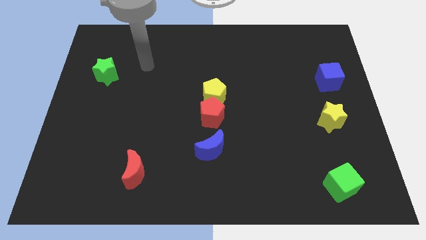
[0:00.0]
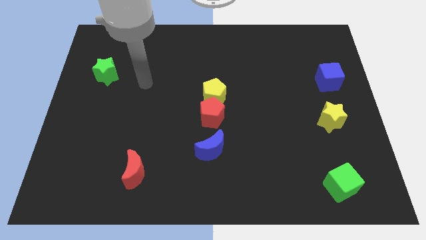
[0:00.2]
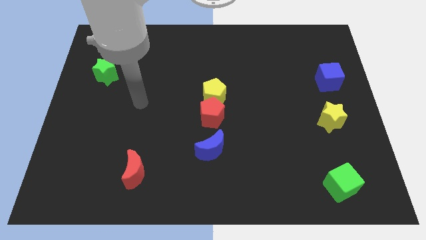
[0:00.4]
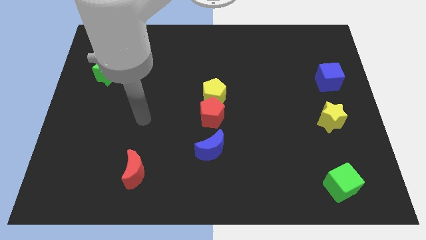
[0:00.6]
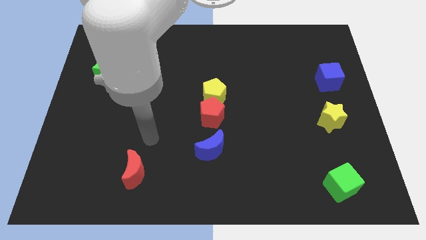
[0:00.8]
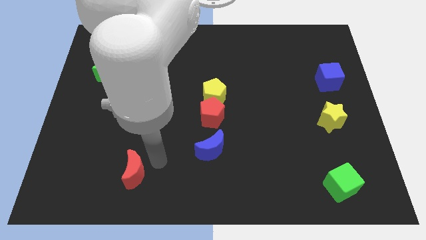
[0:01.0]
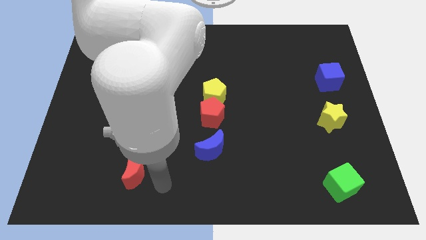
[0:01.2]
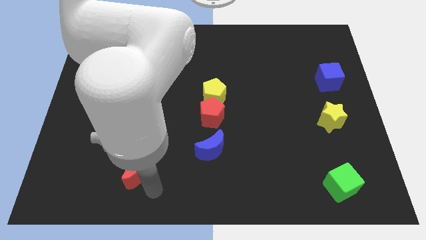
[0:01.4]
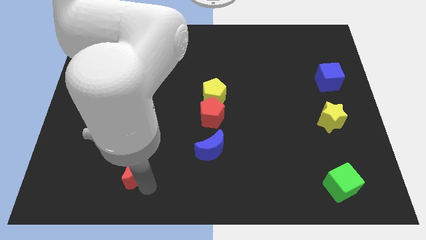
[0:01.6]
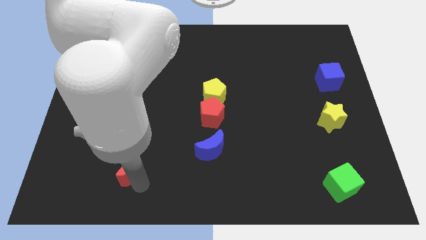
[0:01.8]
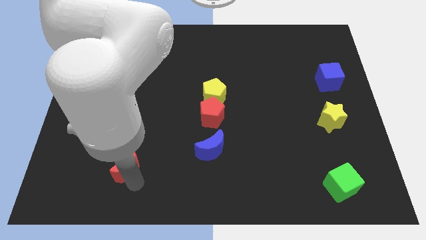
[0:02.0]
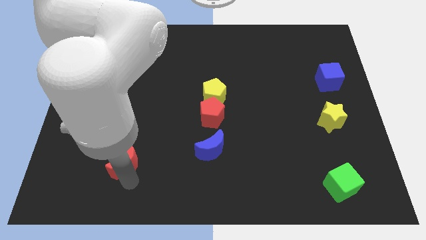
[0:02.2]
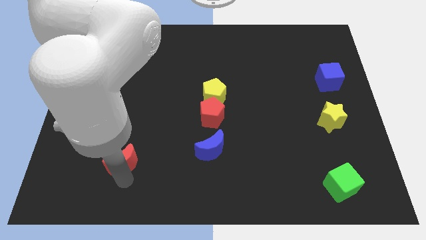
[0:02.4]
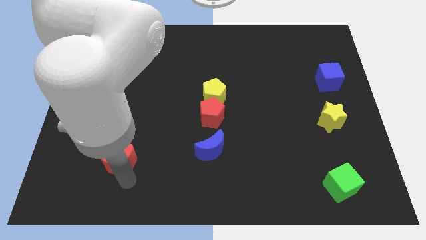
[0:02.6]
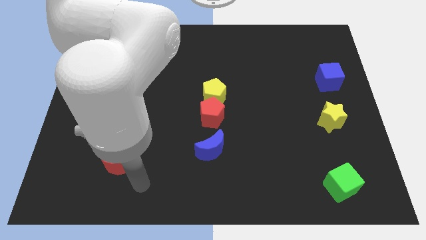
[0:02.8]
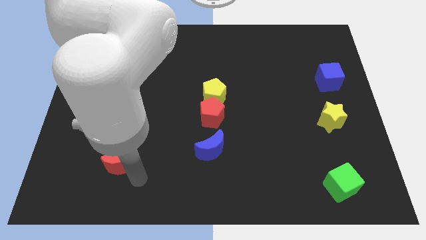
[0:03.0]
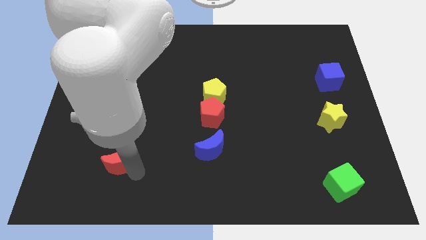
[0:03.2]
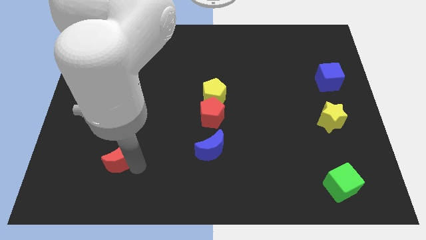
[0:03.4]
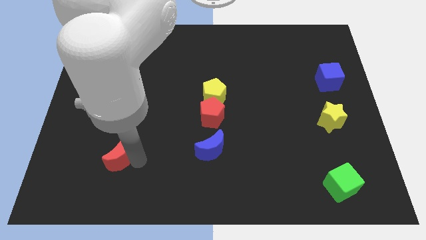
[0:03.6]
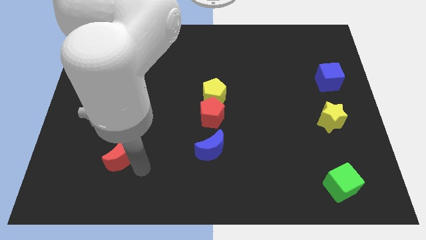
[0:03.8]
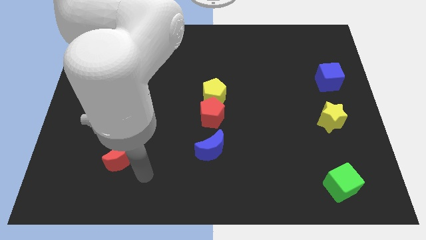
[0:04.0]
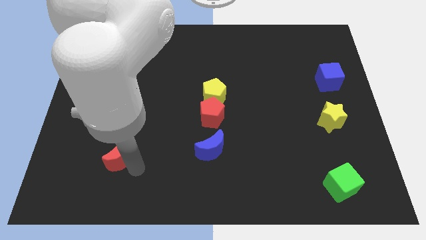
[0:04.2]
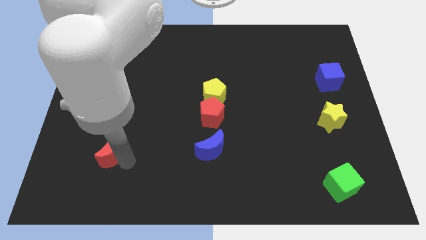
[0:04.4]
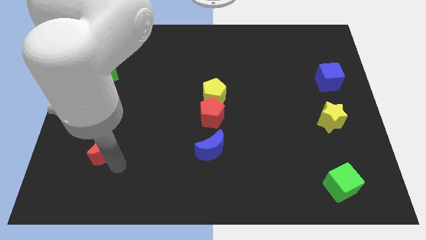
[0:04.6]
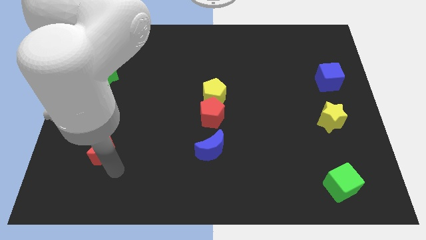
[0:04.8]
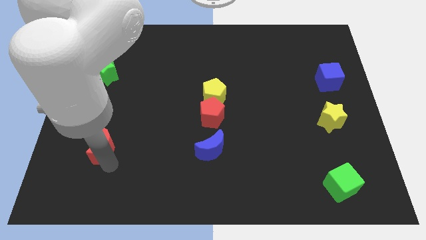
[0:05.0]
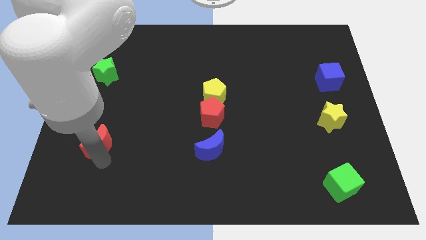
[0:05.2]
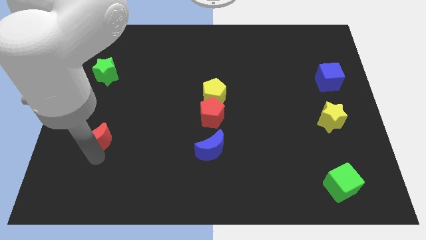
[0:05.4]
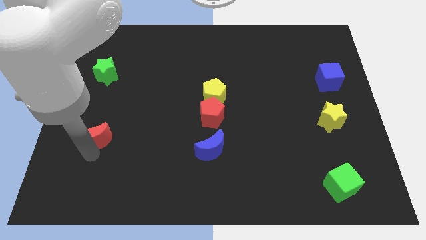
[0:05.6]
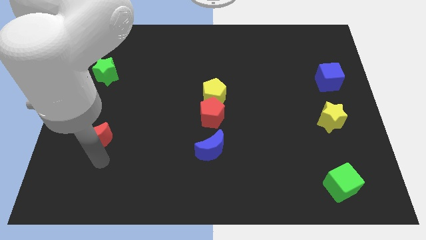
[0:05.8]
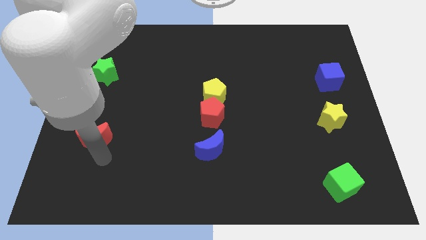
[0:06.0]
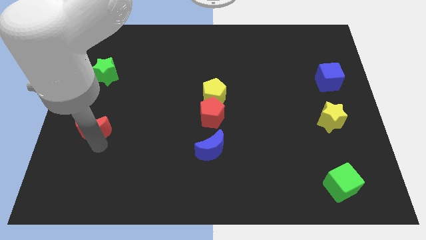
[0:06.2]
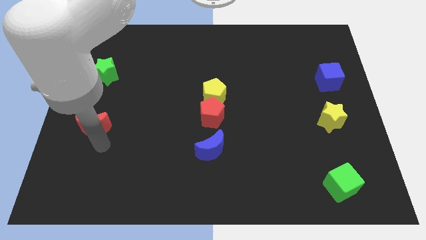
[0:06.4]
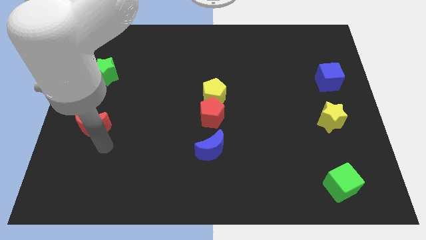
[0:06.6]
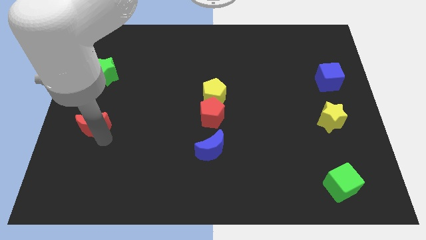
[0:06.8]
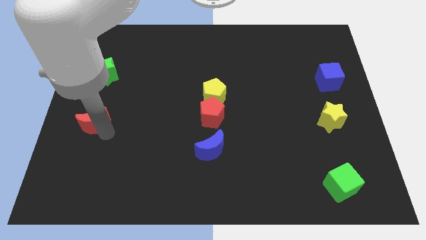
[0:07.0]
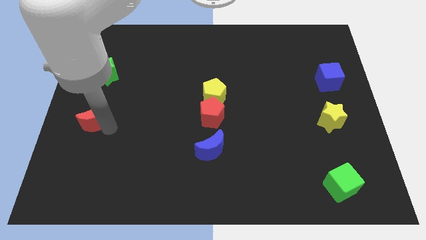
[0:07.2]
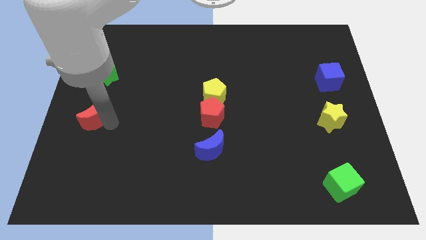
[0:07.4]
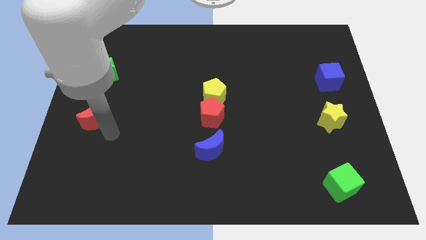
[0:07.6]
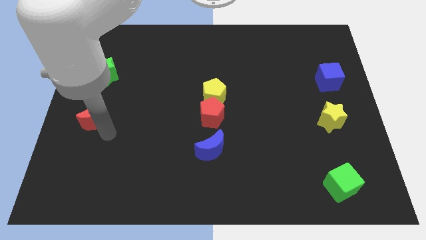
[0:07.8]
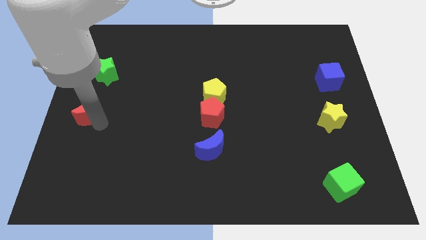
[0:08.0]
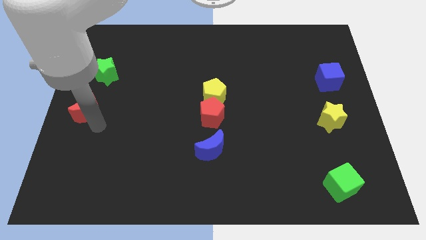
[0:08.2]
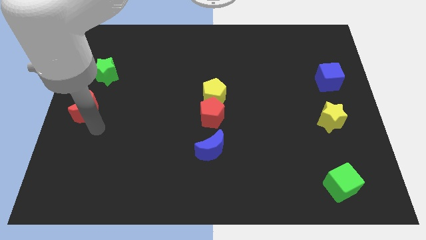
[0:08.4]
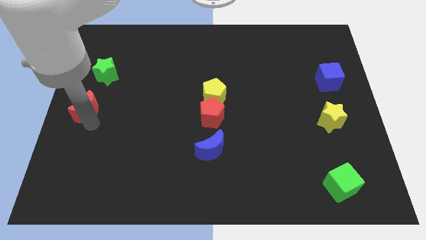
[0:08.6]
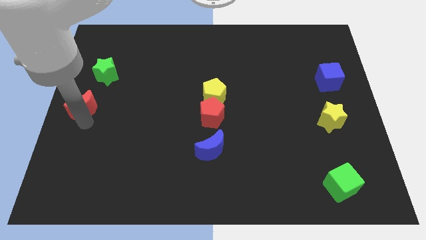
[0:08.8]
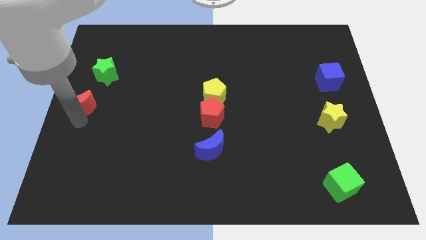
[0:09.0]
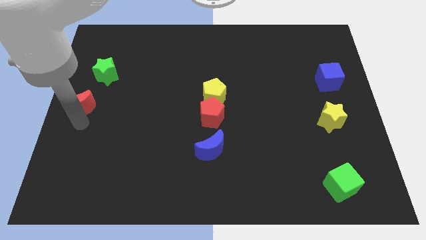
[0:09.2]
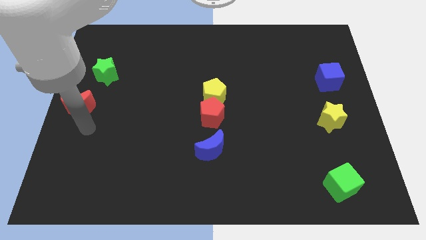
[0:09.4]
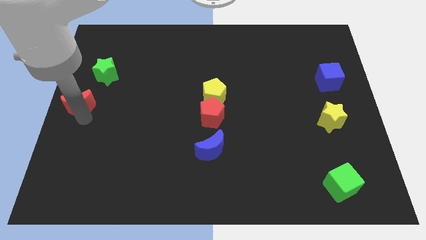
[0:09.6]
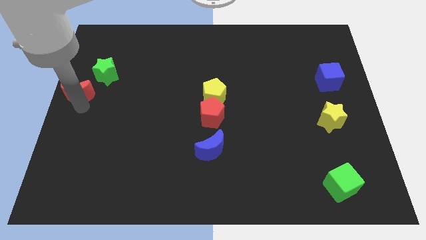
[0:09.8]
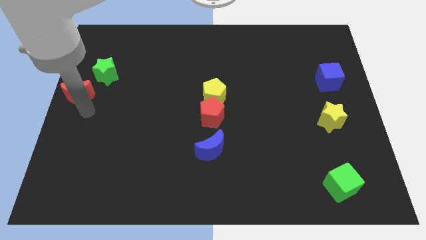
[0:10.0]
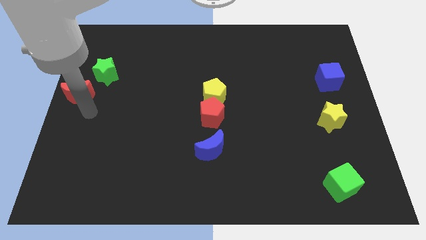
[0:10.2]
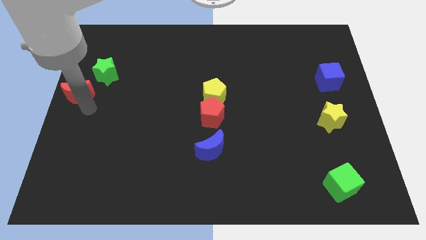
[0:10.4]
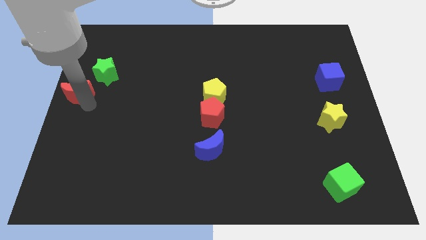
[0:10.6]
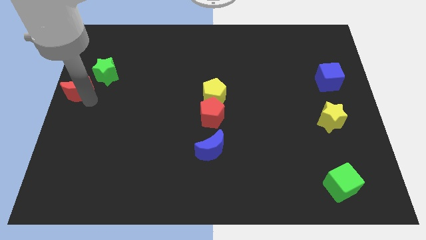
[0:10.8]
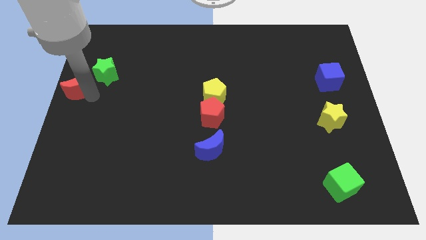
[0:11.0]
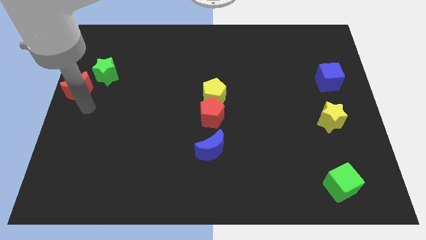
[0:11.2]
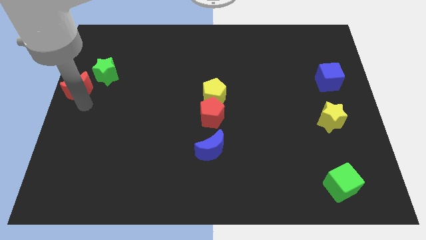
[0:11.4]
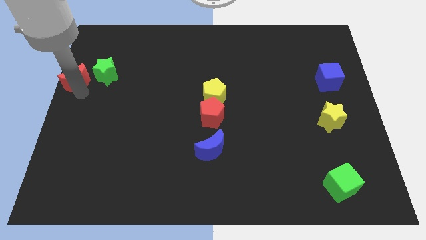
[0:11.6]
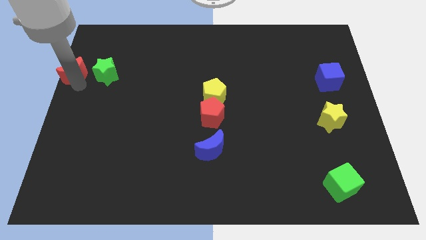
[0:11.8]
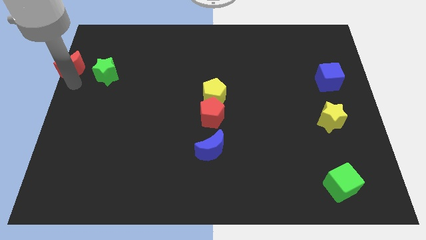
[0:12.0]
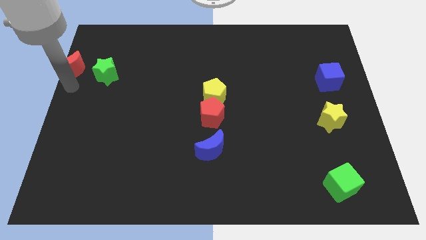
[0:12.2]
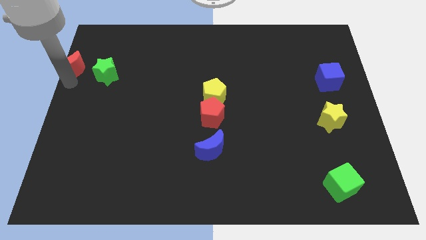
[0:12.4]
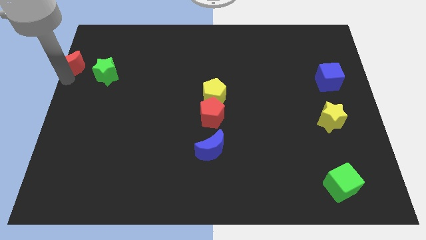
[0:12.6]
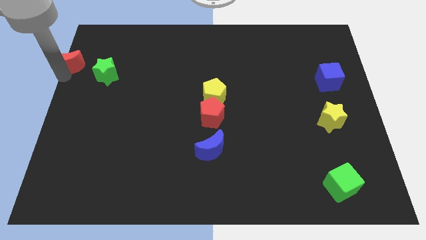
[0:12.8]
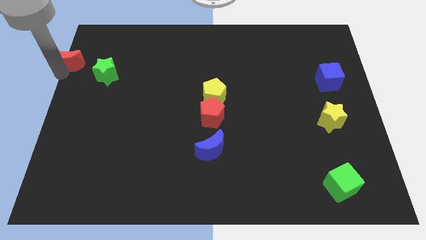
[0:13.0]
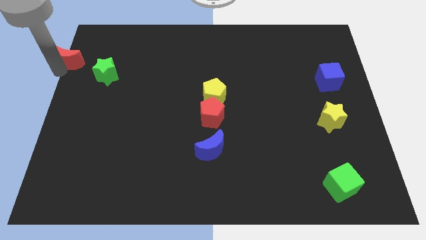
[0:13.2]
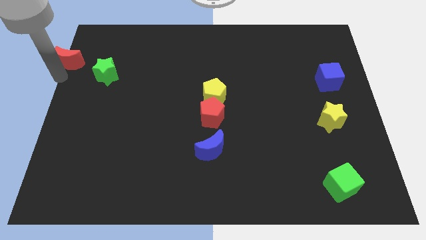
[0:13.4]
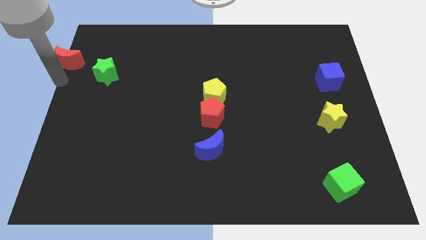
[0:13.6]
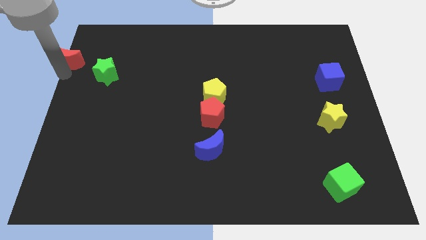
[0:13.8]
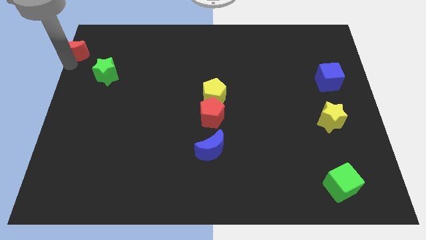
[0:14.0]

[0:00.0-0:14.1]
slide the red moon to the top left of the board
